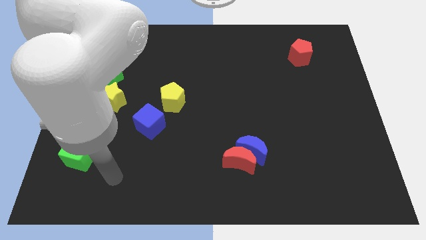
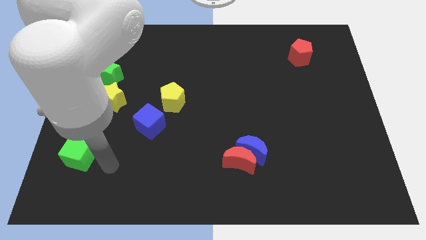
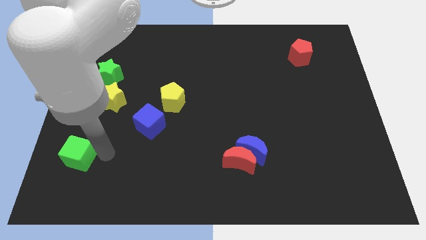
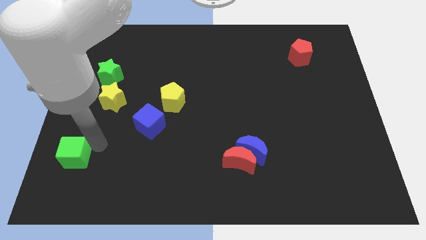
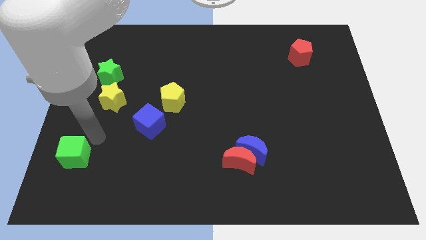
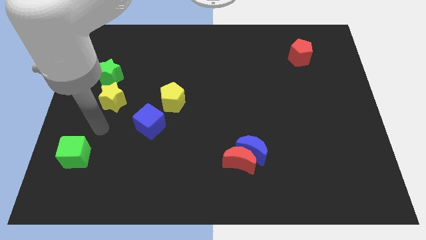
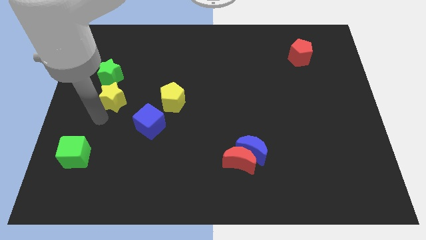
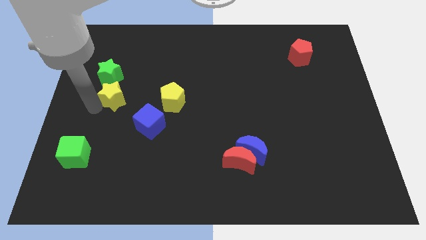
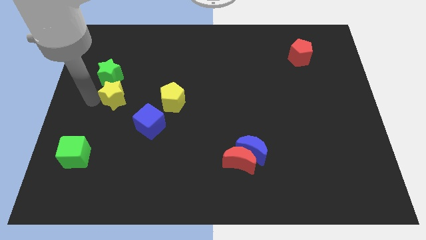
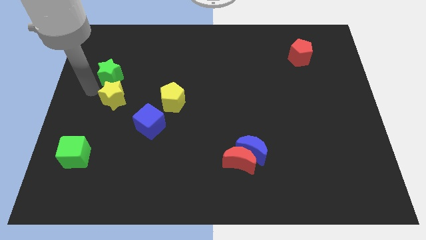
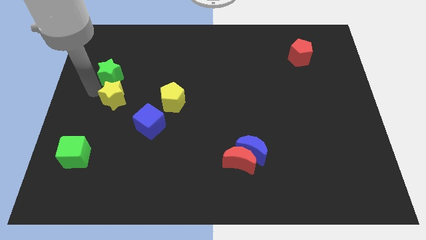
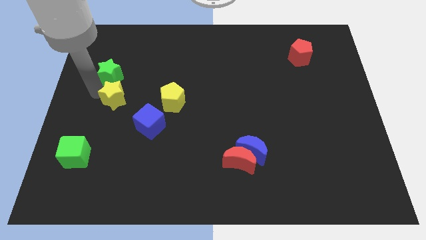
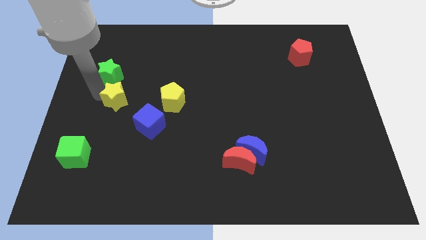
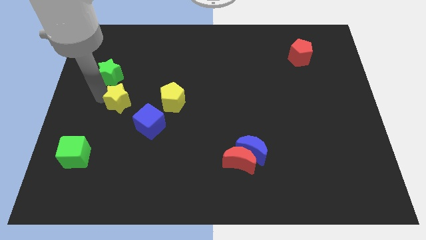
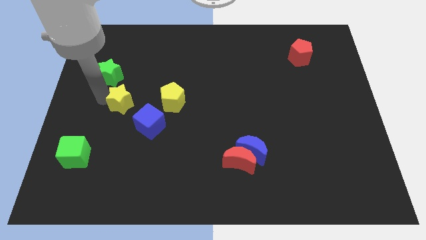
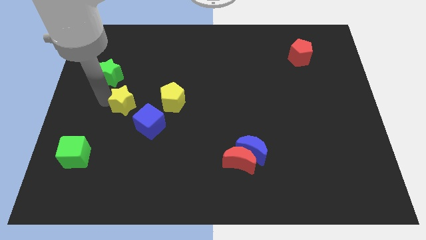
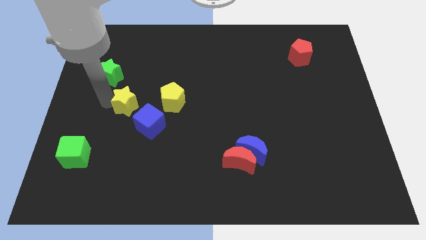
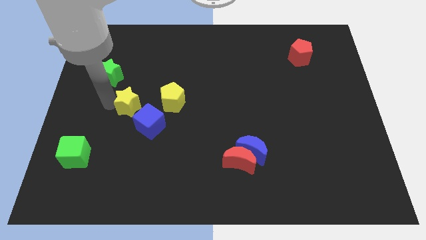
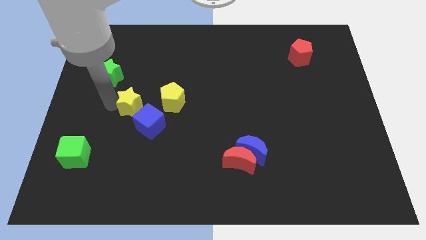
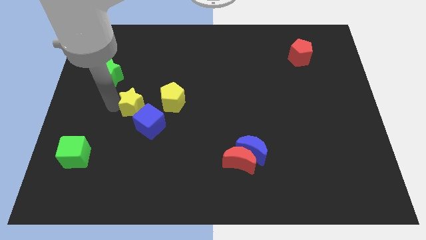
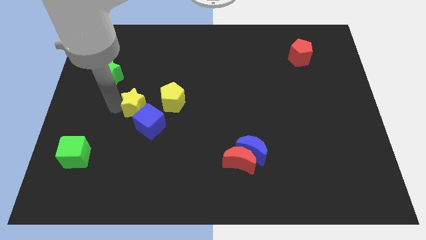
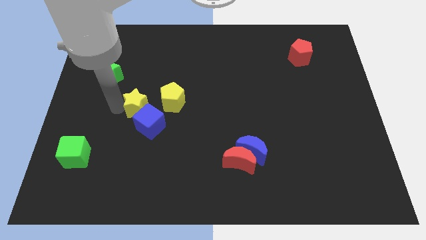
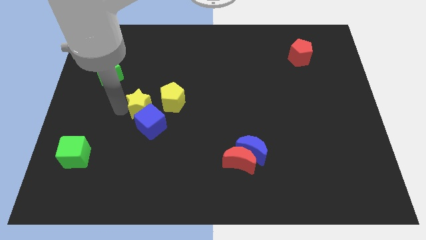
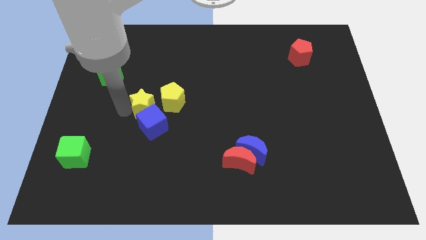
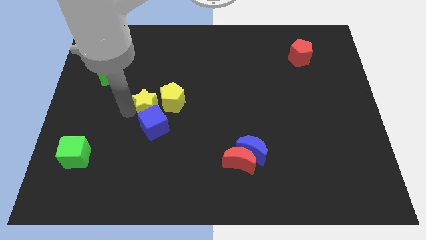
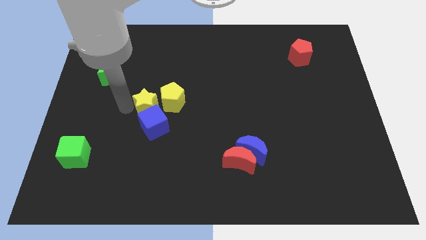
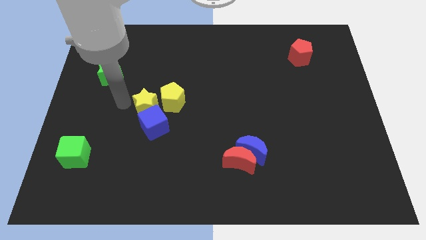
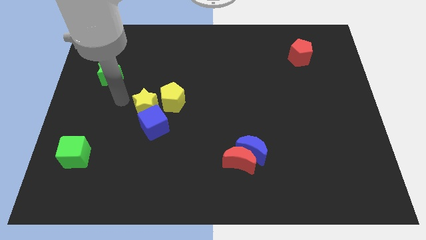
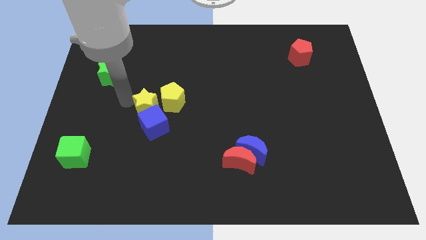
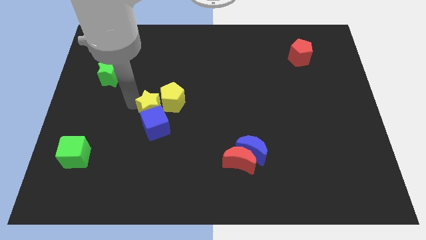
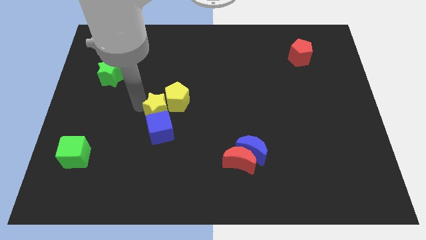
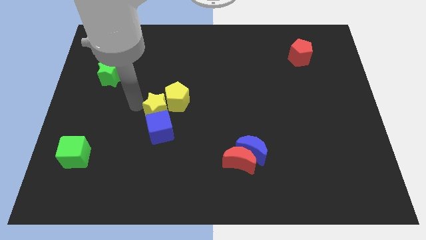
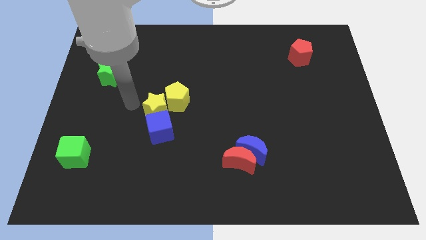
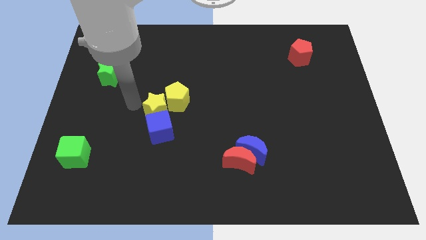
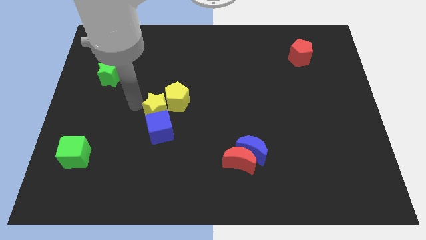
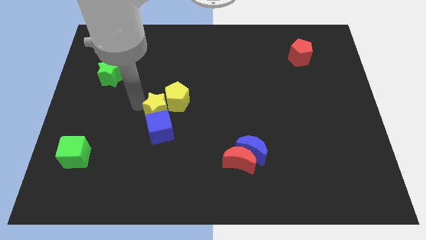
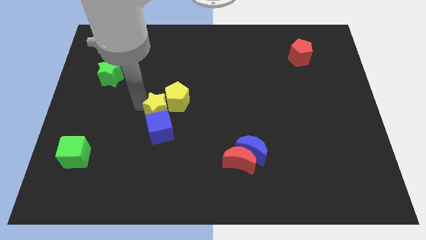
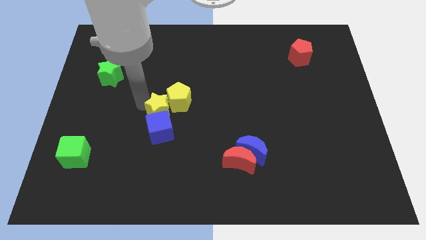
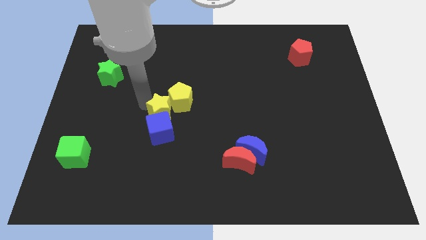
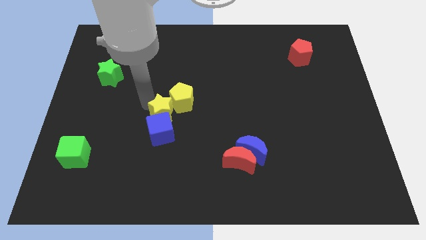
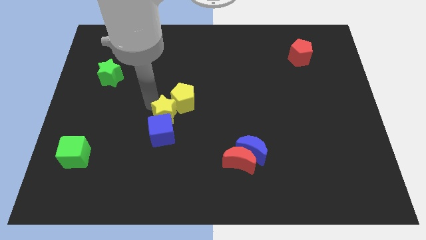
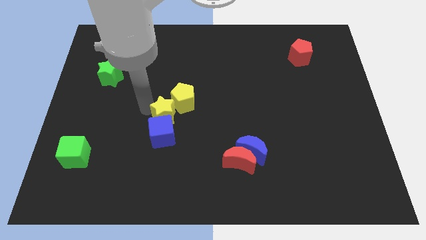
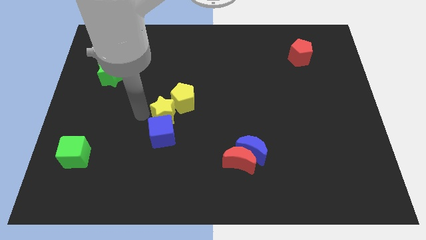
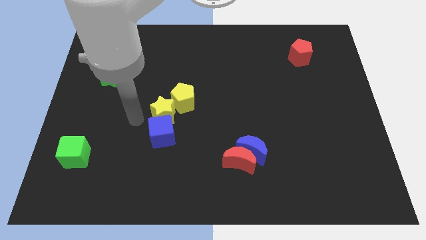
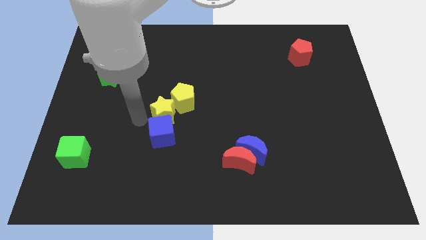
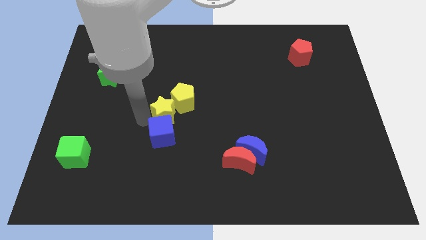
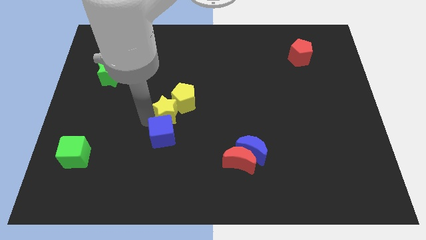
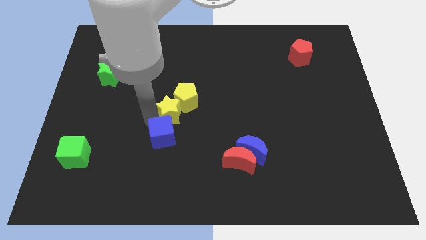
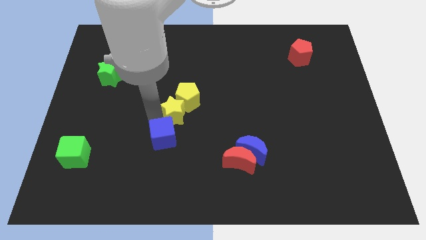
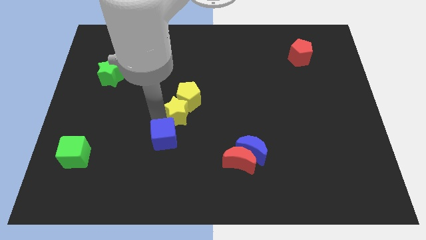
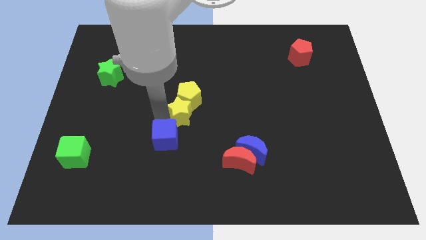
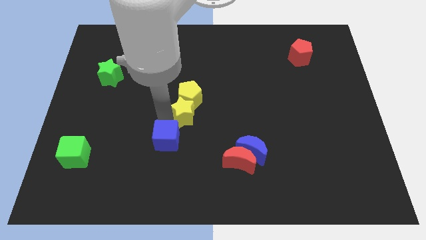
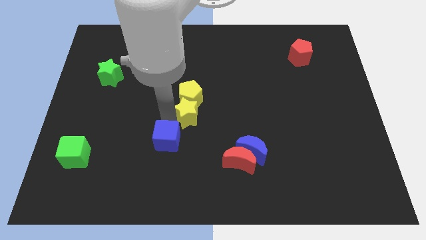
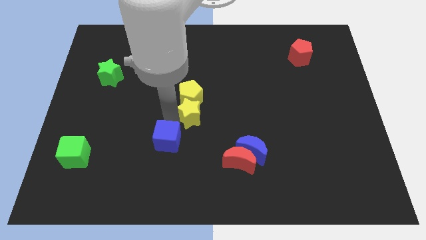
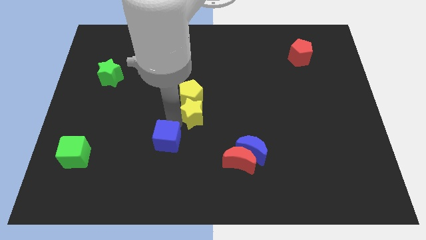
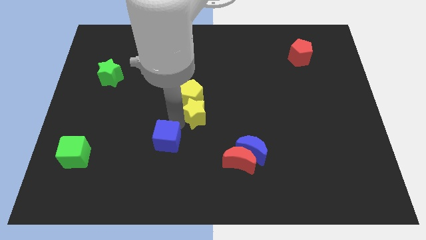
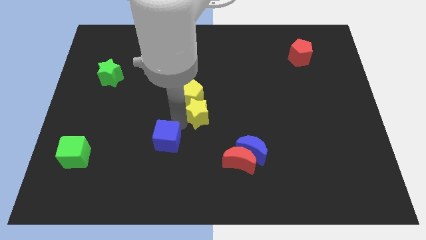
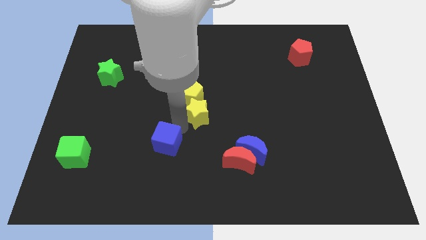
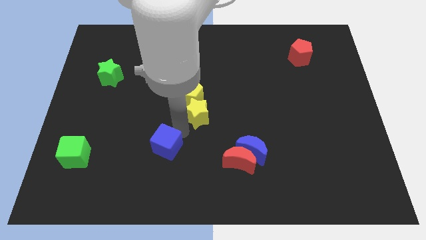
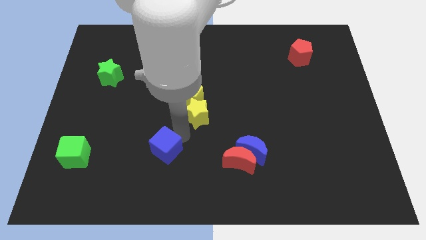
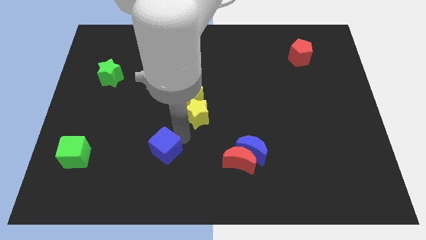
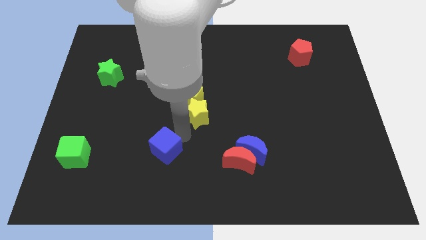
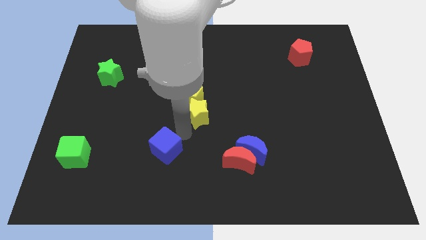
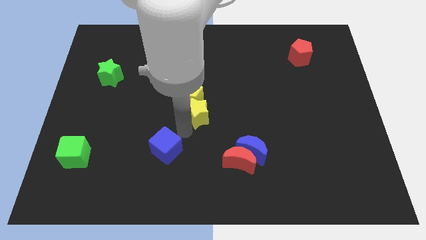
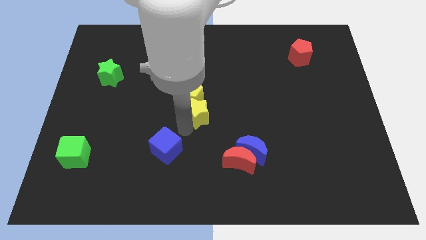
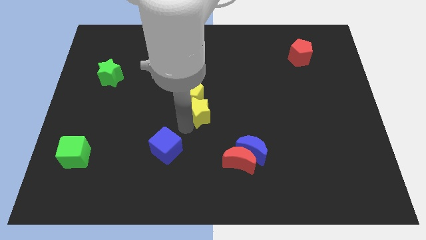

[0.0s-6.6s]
move the yellow star right

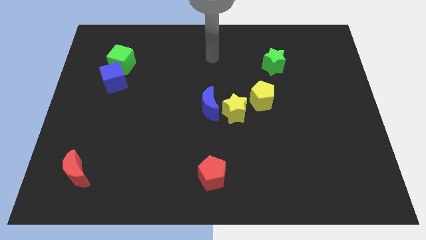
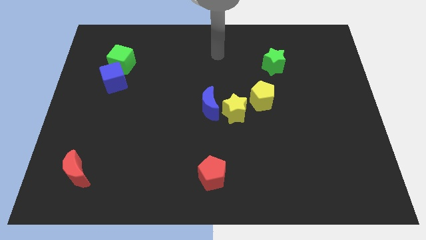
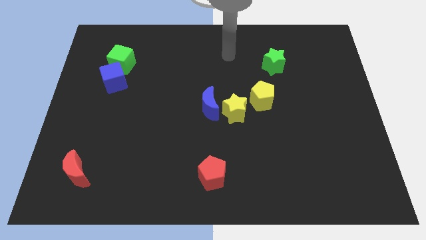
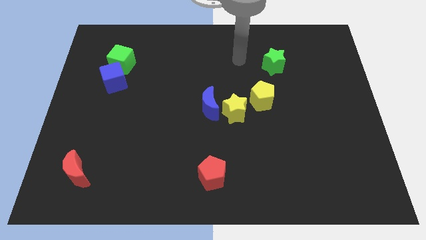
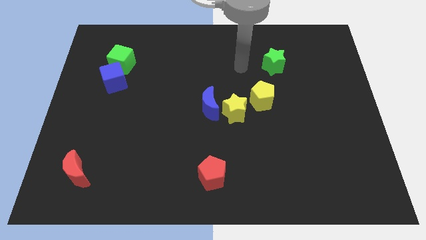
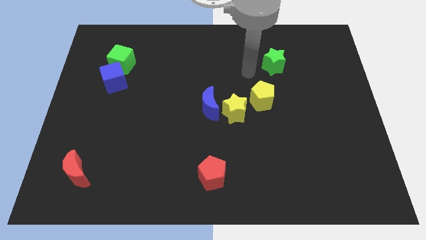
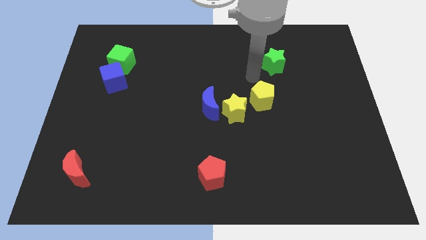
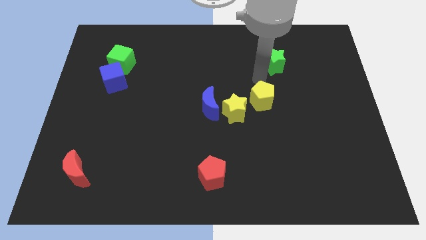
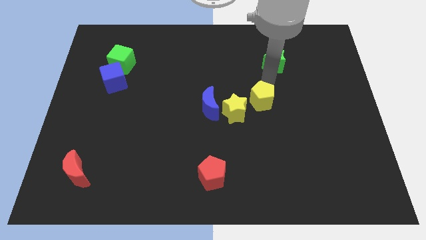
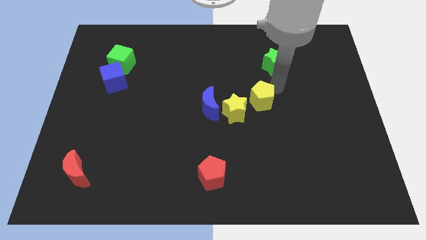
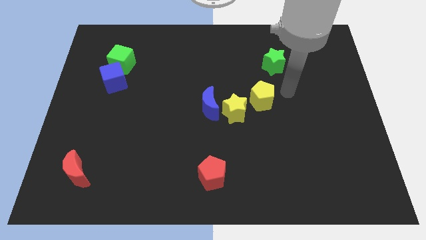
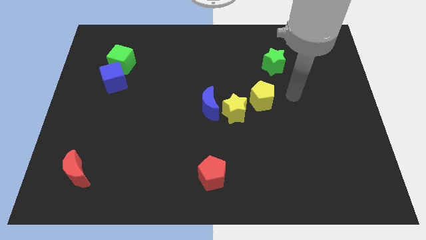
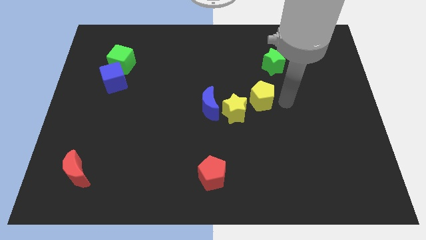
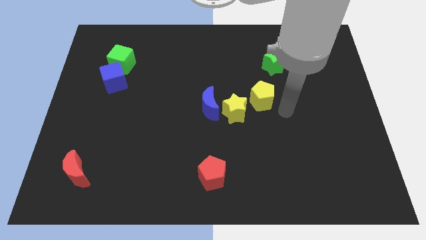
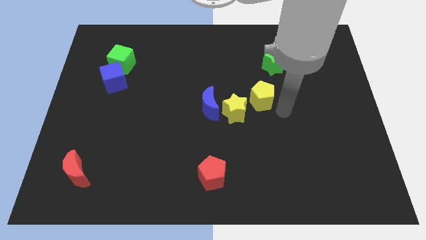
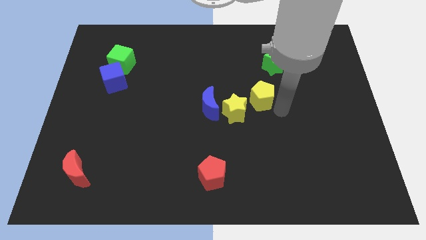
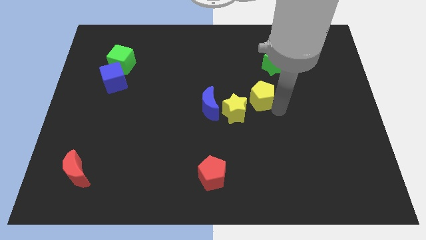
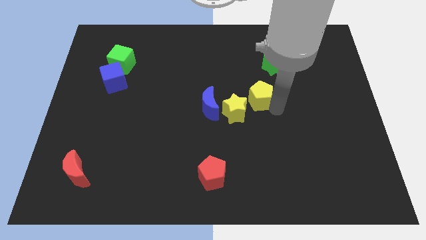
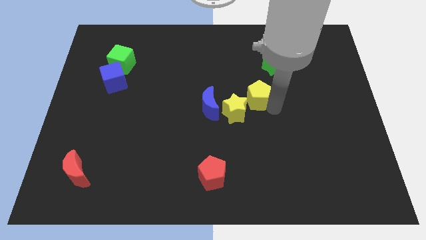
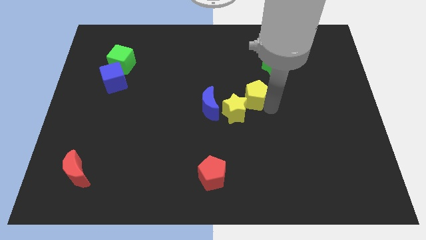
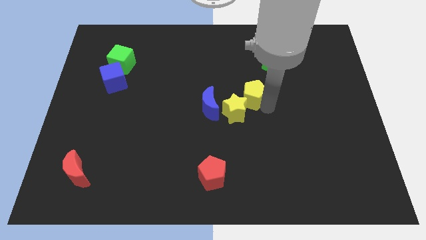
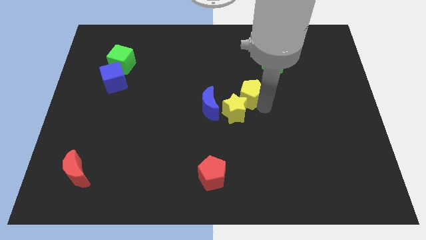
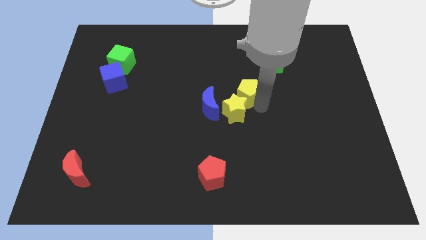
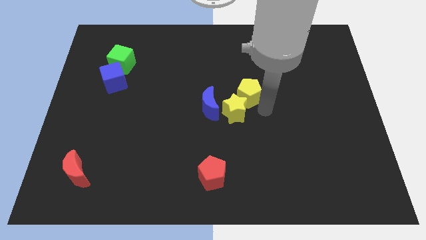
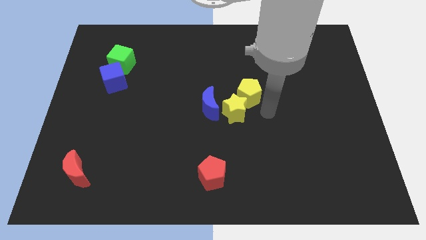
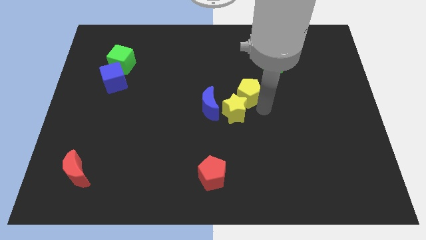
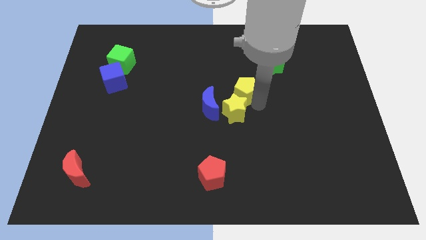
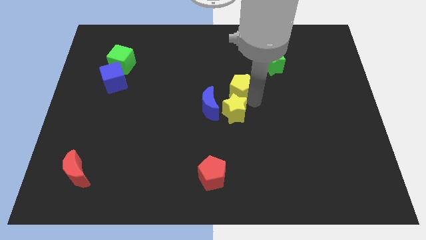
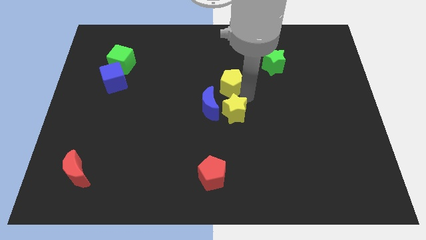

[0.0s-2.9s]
slightly push the yellow pentagon upwards and left
